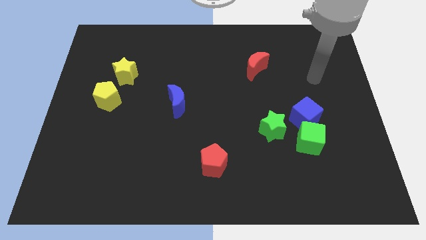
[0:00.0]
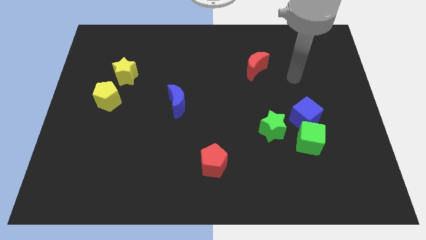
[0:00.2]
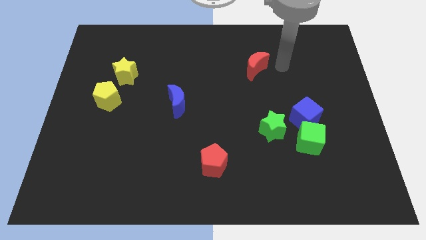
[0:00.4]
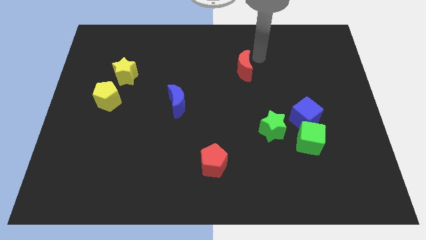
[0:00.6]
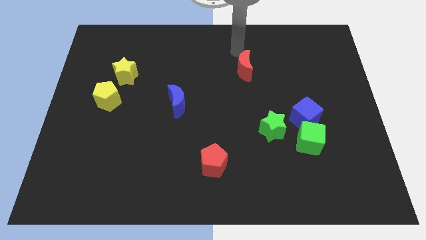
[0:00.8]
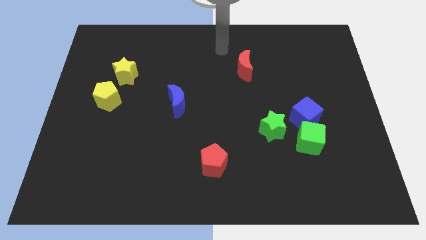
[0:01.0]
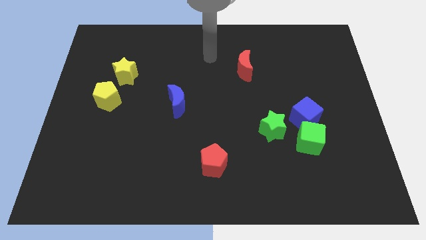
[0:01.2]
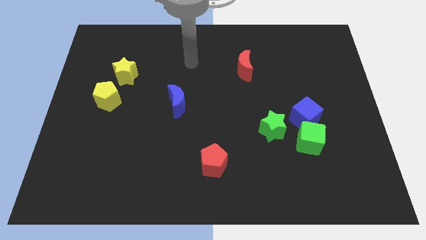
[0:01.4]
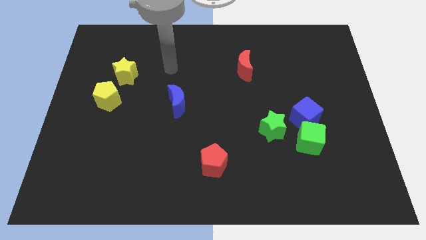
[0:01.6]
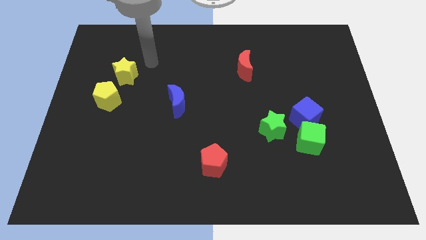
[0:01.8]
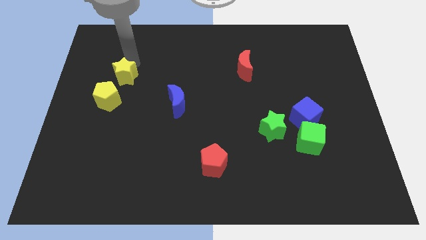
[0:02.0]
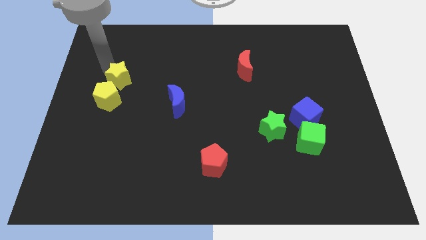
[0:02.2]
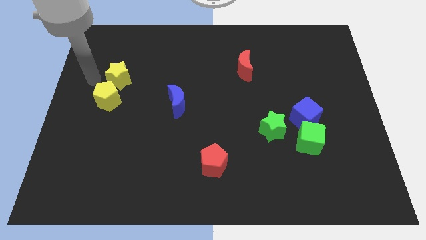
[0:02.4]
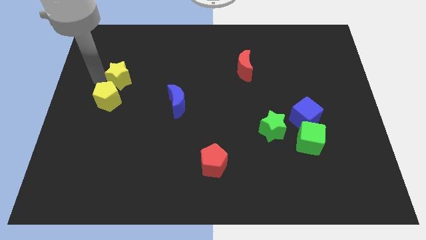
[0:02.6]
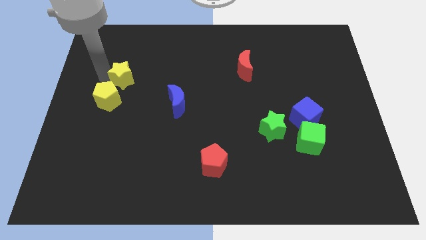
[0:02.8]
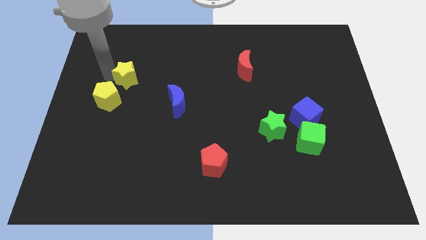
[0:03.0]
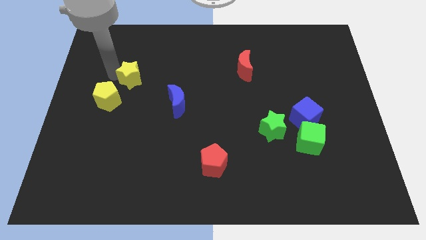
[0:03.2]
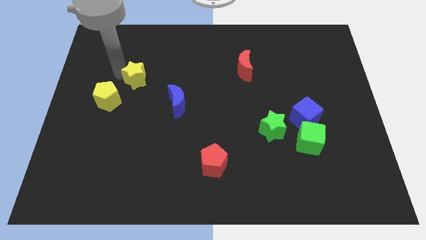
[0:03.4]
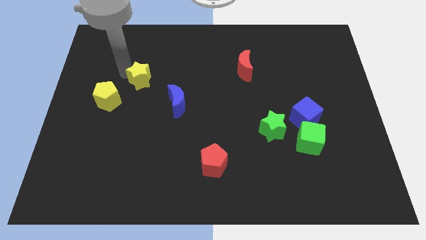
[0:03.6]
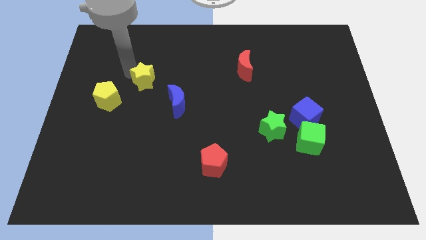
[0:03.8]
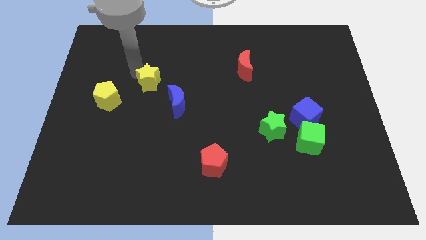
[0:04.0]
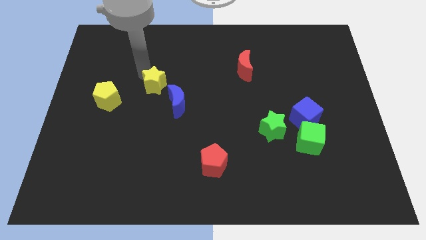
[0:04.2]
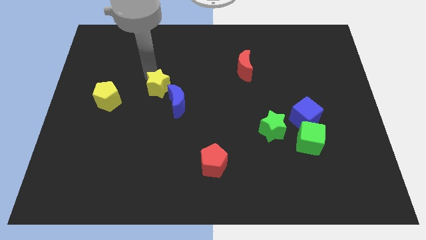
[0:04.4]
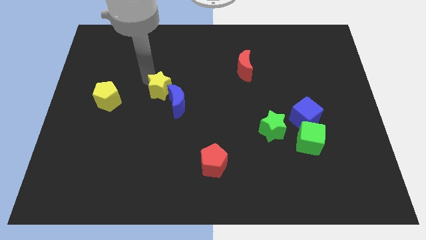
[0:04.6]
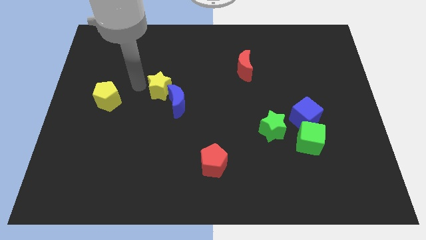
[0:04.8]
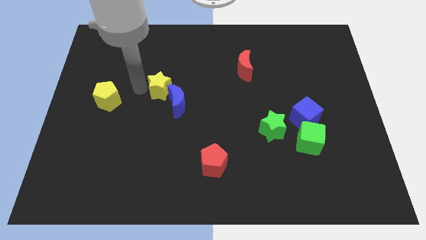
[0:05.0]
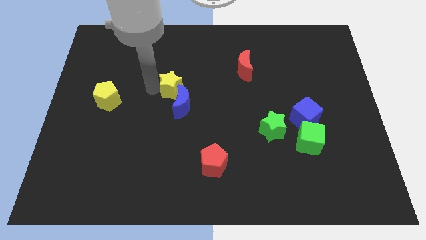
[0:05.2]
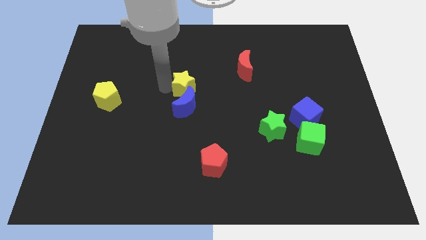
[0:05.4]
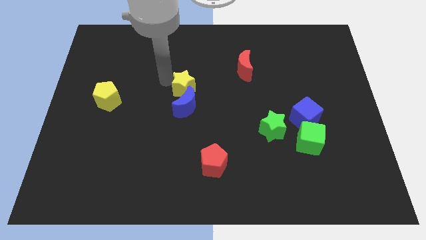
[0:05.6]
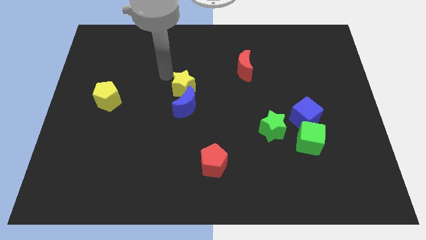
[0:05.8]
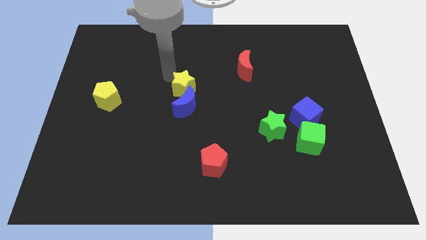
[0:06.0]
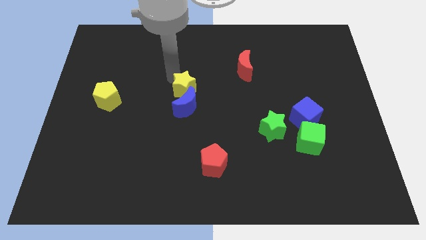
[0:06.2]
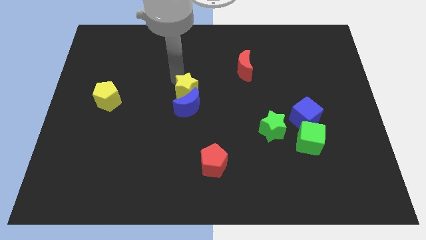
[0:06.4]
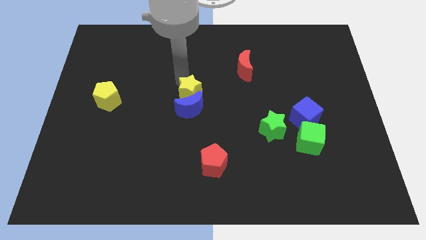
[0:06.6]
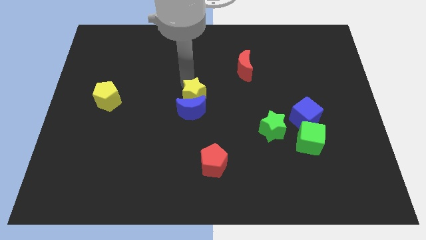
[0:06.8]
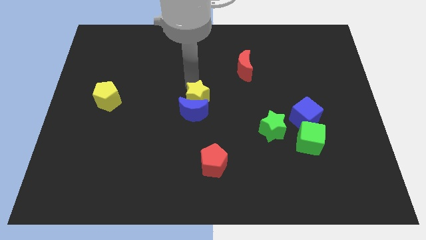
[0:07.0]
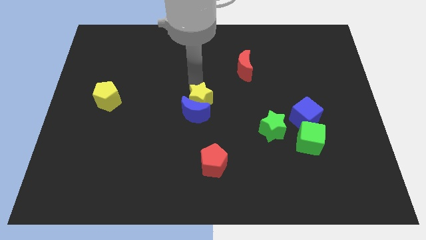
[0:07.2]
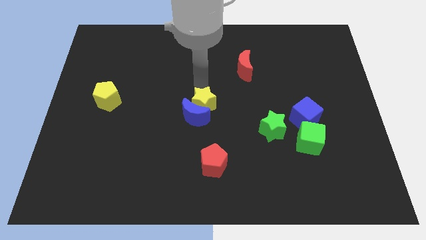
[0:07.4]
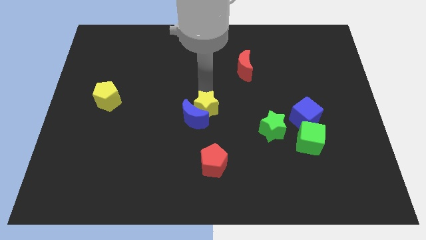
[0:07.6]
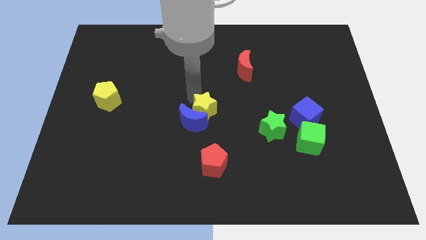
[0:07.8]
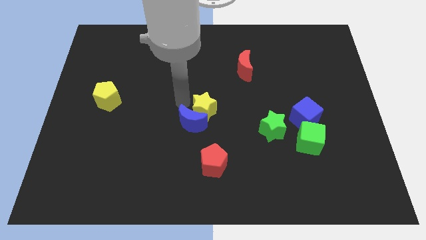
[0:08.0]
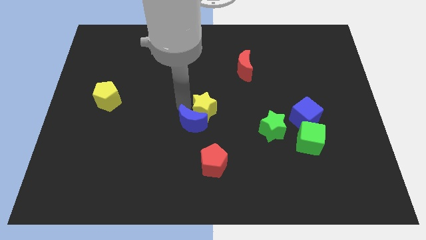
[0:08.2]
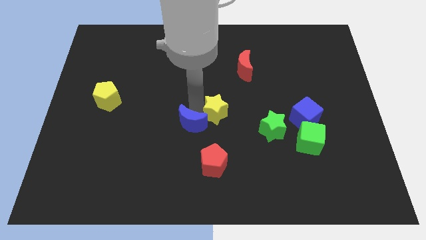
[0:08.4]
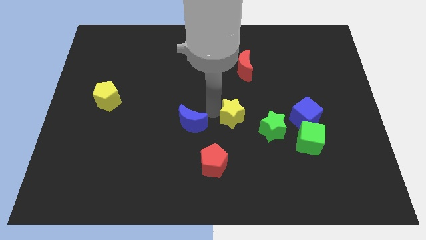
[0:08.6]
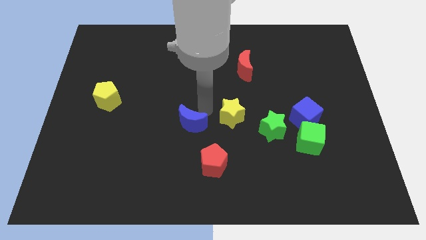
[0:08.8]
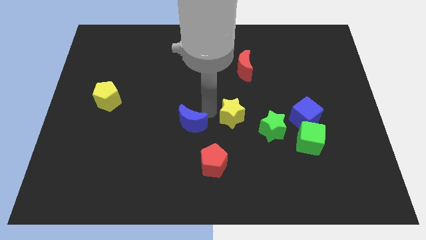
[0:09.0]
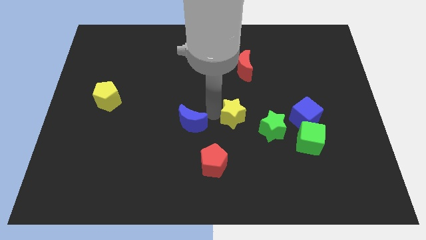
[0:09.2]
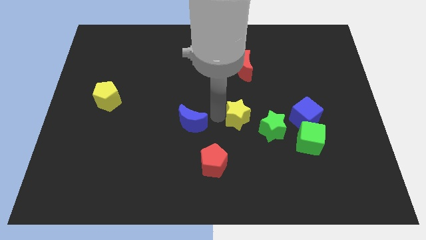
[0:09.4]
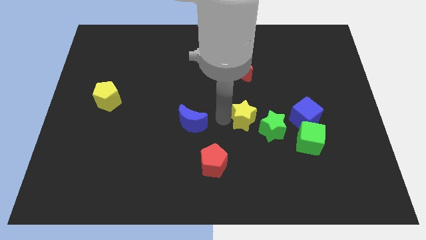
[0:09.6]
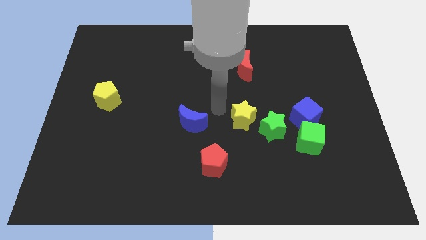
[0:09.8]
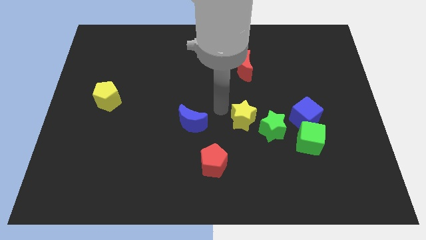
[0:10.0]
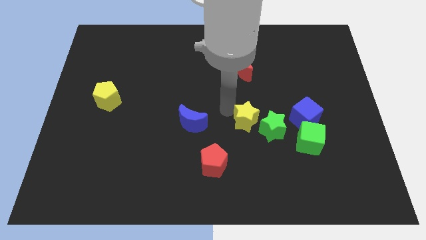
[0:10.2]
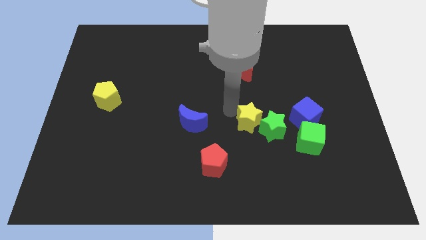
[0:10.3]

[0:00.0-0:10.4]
push the yellow star next to the green star

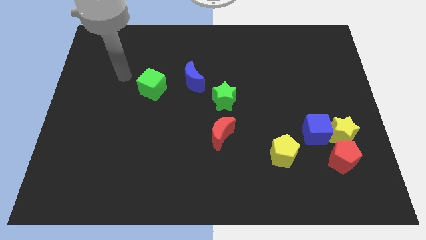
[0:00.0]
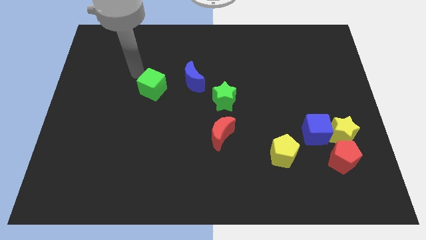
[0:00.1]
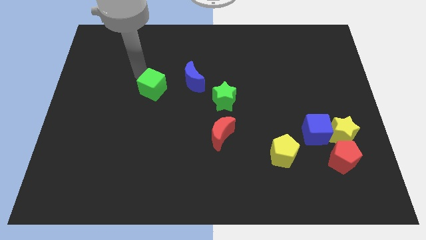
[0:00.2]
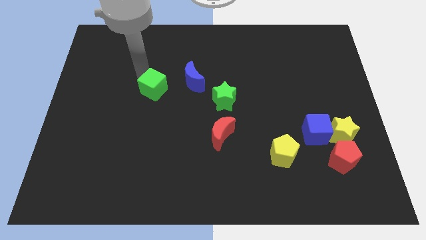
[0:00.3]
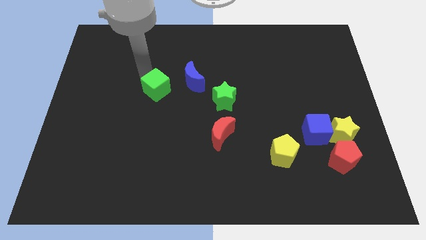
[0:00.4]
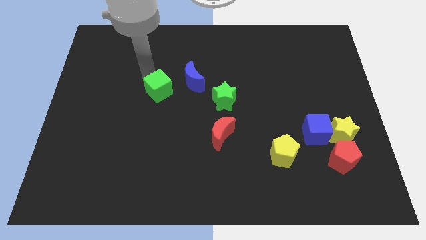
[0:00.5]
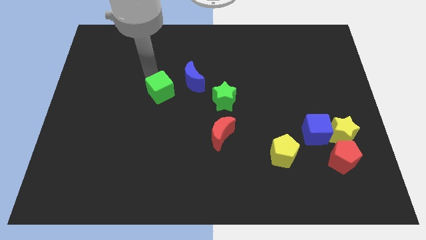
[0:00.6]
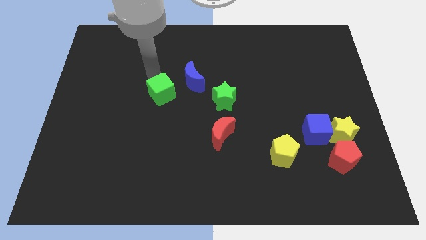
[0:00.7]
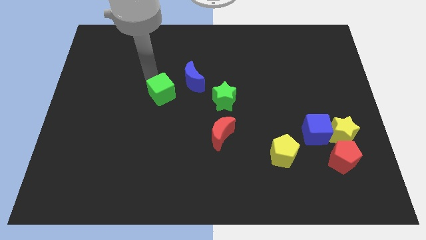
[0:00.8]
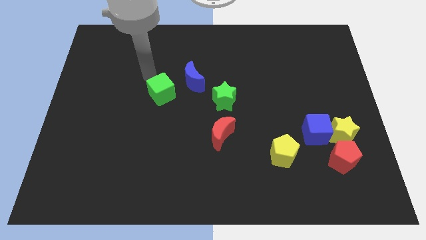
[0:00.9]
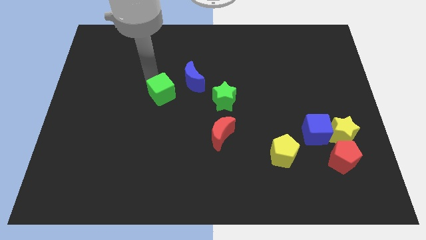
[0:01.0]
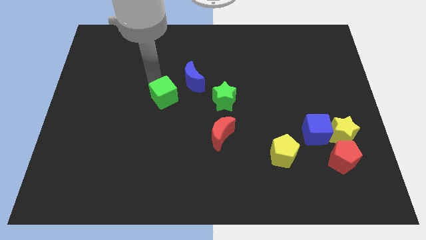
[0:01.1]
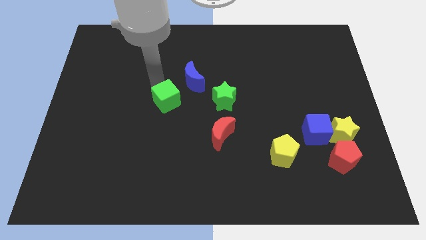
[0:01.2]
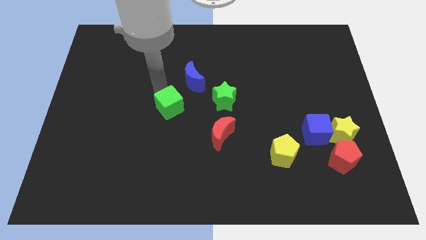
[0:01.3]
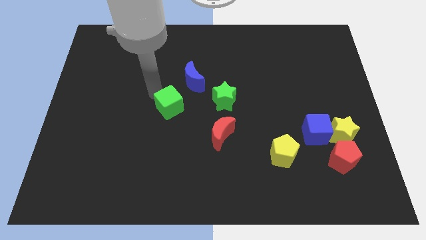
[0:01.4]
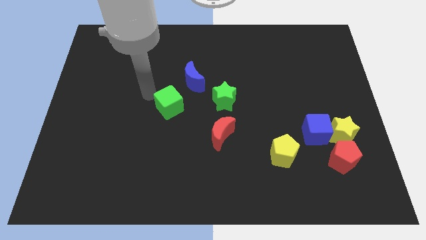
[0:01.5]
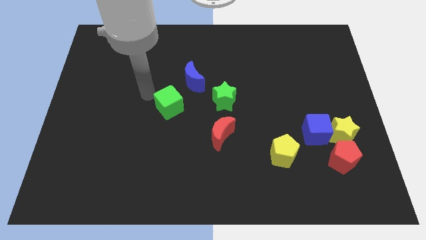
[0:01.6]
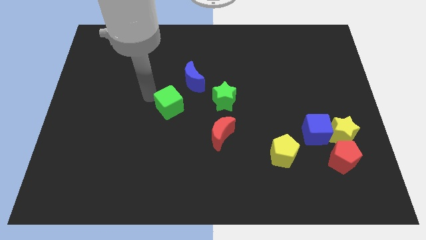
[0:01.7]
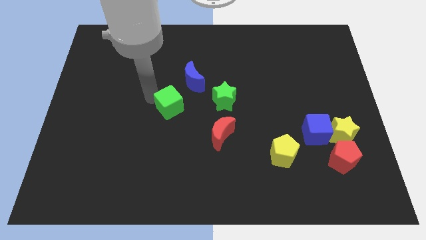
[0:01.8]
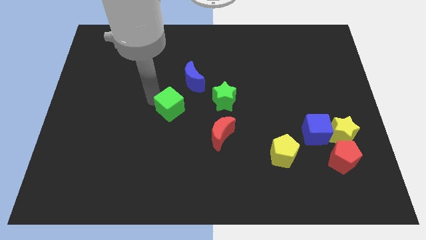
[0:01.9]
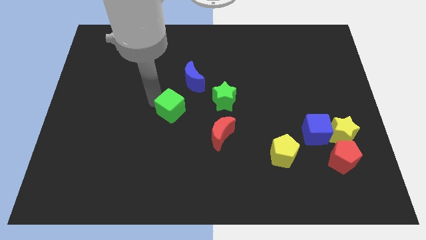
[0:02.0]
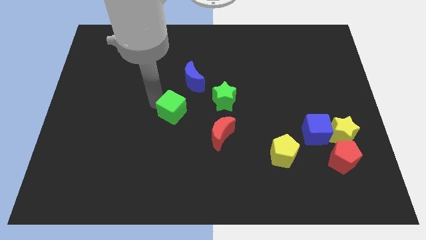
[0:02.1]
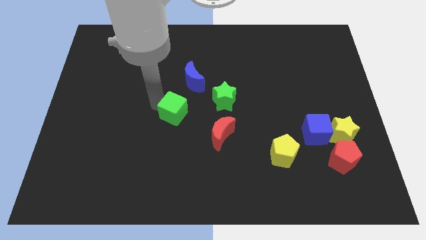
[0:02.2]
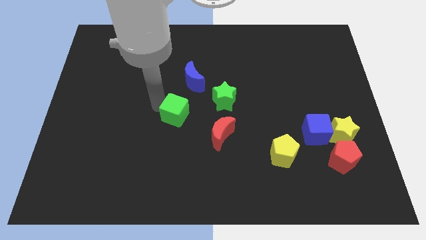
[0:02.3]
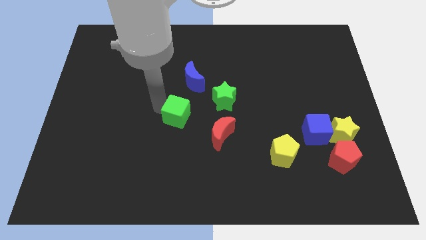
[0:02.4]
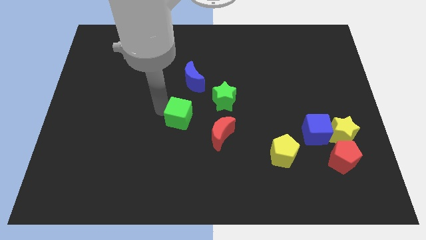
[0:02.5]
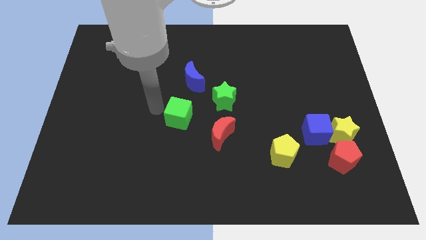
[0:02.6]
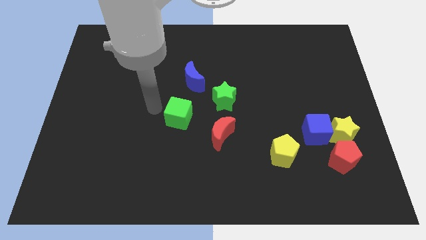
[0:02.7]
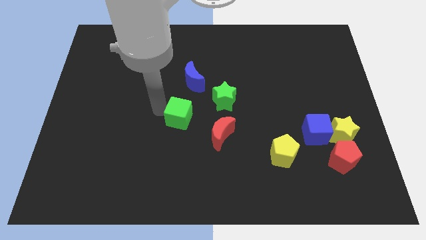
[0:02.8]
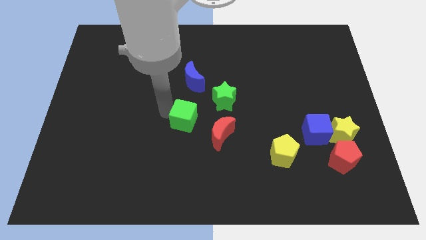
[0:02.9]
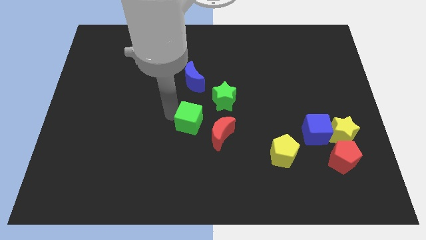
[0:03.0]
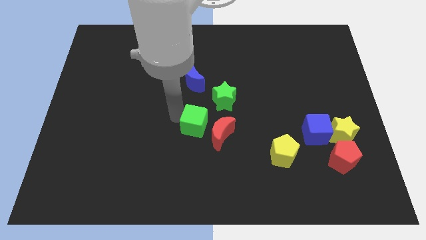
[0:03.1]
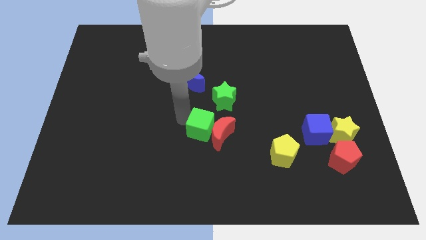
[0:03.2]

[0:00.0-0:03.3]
put the green cube towards the red moon
